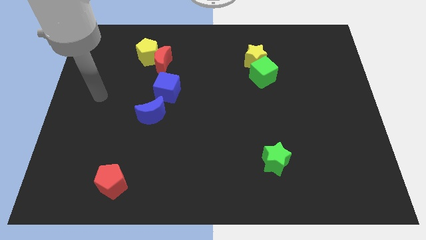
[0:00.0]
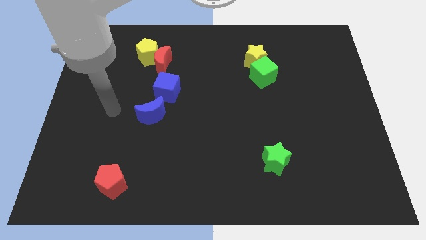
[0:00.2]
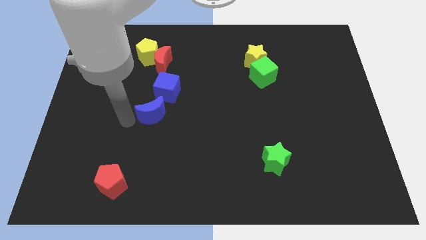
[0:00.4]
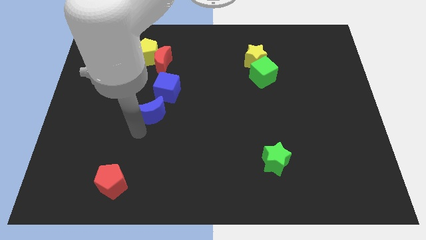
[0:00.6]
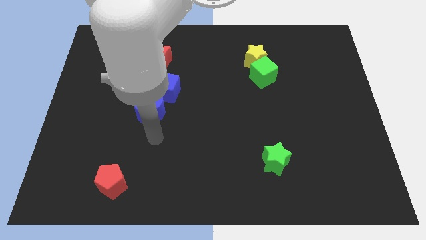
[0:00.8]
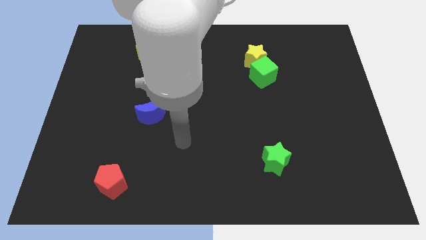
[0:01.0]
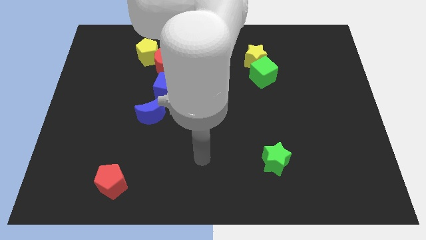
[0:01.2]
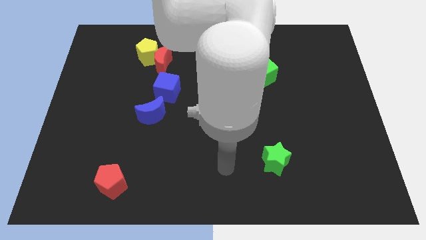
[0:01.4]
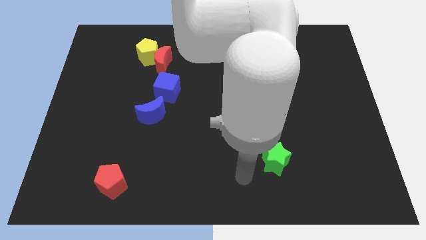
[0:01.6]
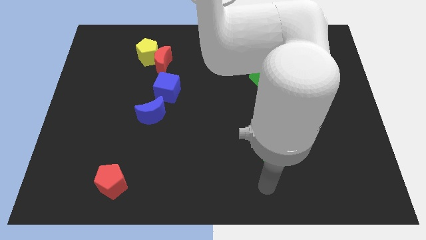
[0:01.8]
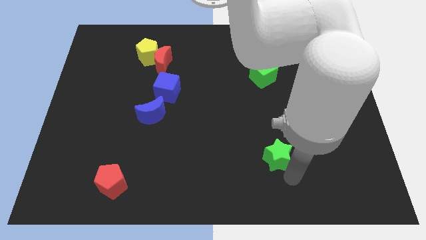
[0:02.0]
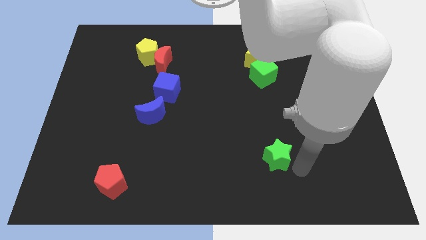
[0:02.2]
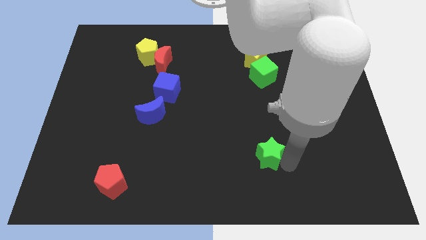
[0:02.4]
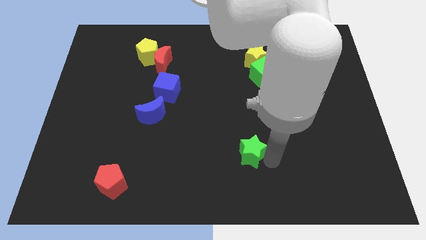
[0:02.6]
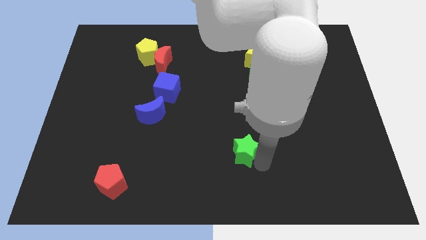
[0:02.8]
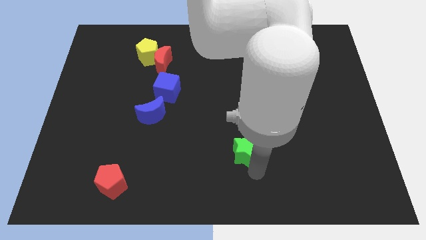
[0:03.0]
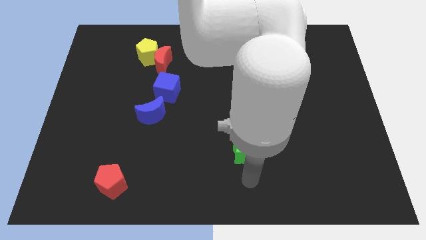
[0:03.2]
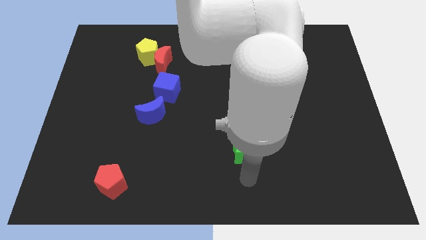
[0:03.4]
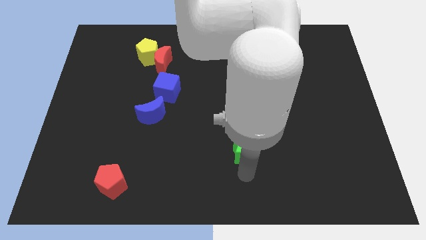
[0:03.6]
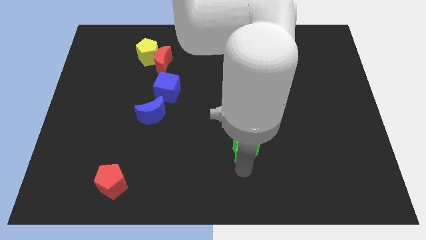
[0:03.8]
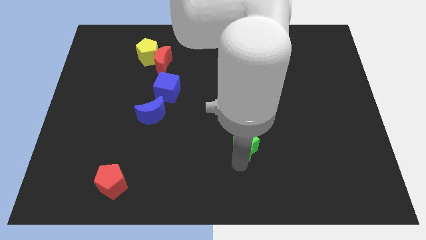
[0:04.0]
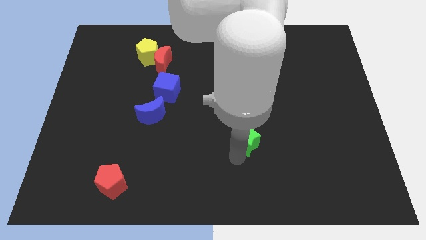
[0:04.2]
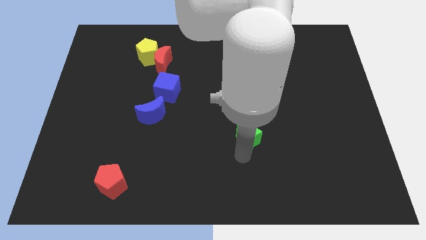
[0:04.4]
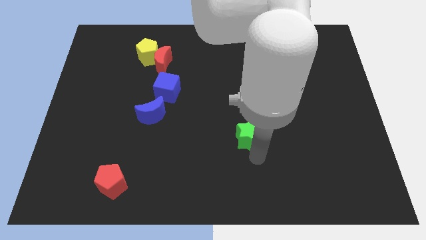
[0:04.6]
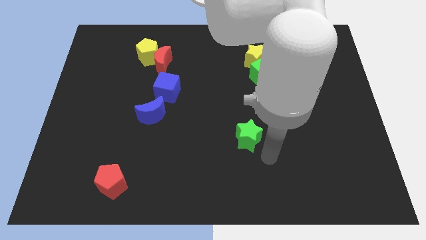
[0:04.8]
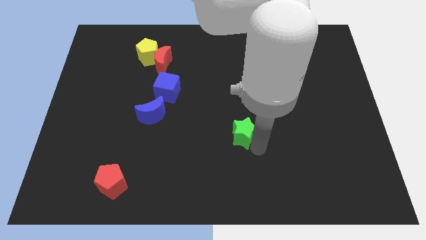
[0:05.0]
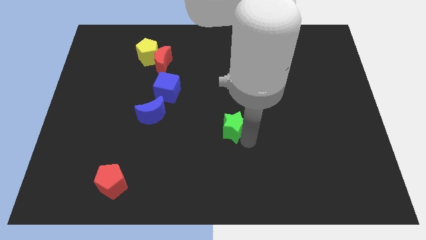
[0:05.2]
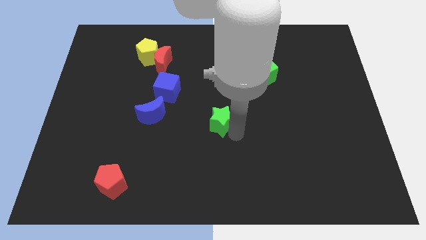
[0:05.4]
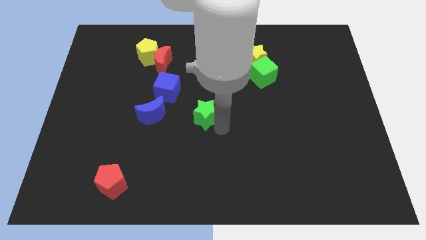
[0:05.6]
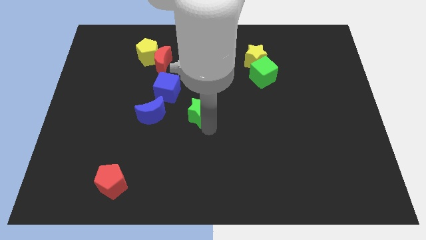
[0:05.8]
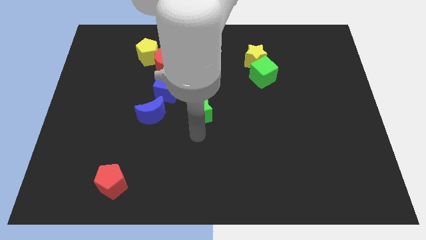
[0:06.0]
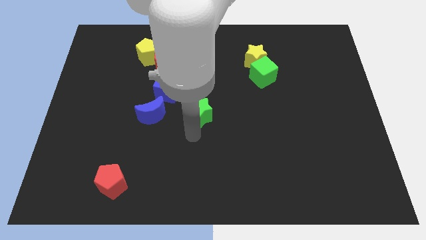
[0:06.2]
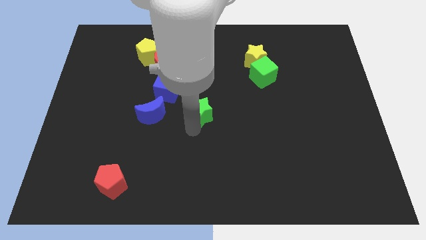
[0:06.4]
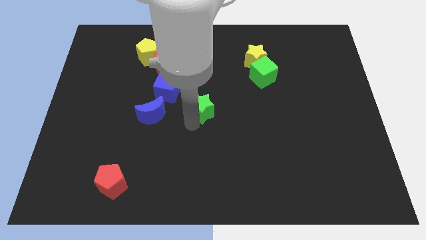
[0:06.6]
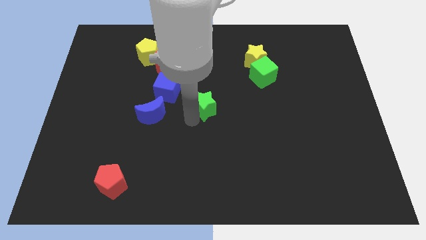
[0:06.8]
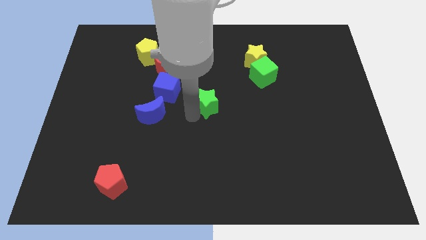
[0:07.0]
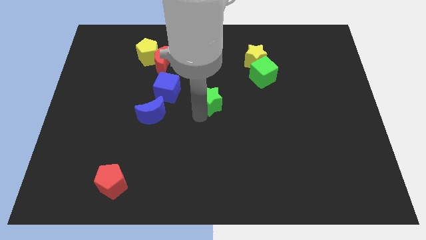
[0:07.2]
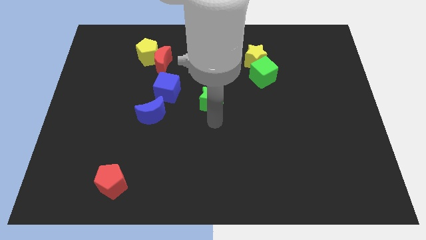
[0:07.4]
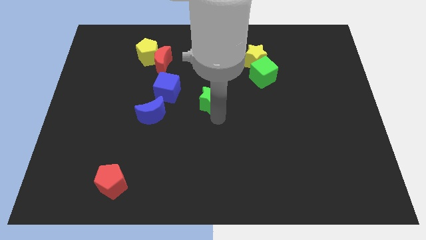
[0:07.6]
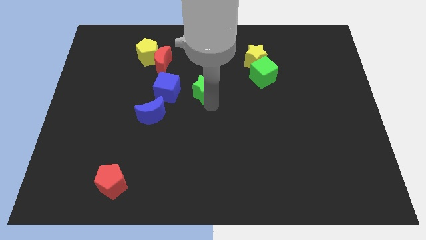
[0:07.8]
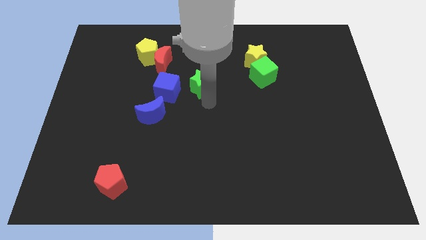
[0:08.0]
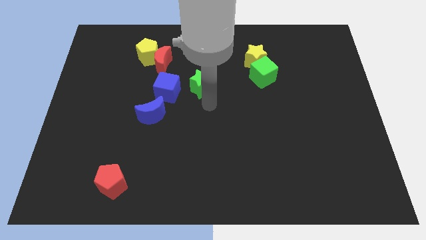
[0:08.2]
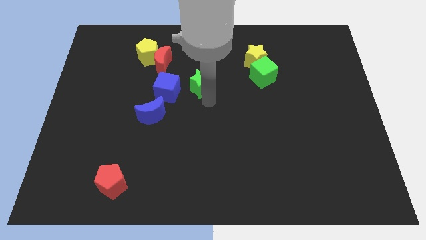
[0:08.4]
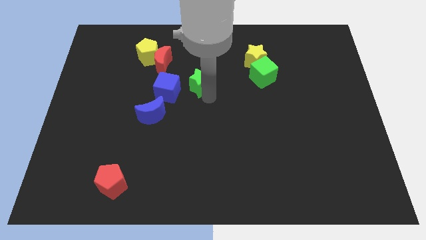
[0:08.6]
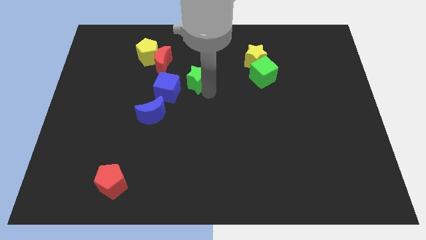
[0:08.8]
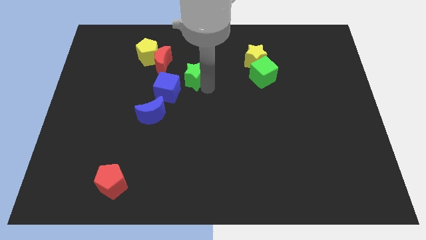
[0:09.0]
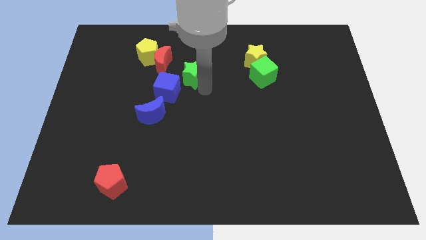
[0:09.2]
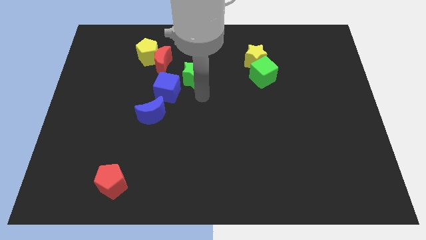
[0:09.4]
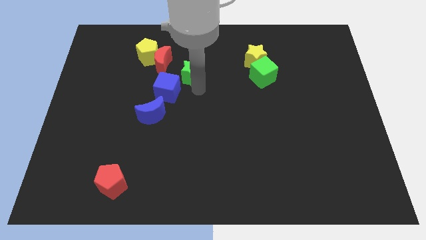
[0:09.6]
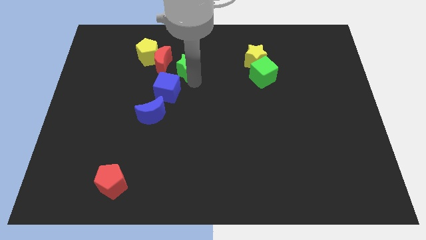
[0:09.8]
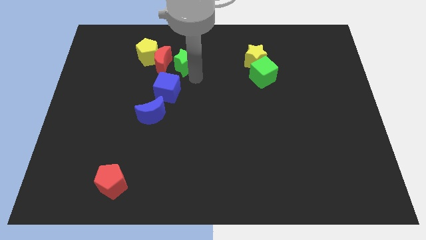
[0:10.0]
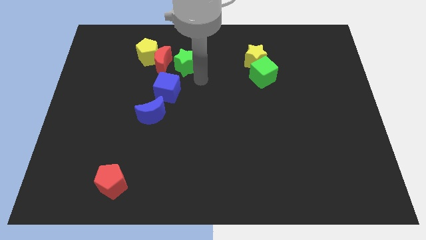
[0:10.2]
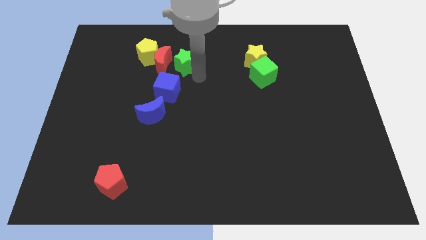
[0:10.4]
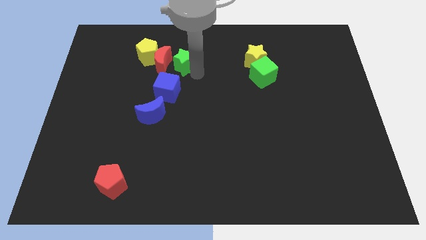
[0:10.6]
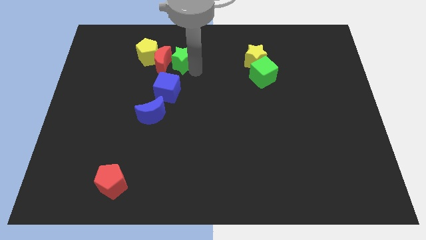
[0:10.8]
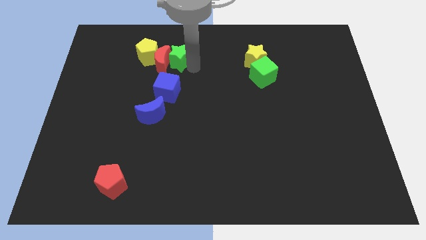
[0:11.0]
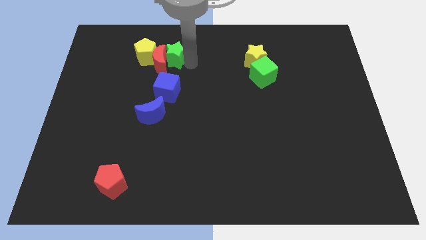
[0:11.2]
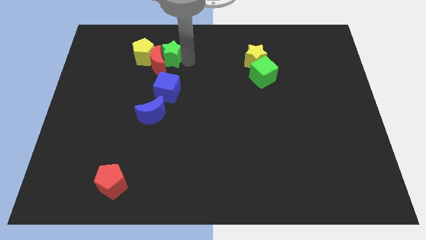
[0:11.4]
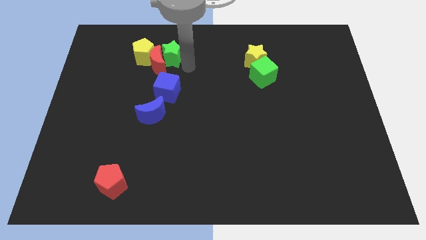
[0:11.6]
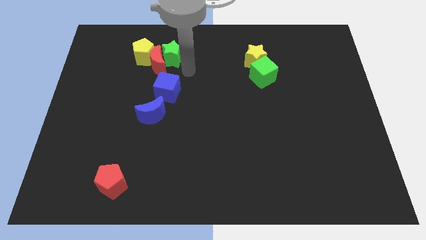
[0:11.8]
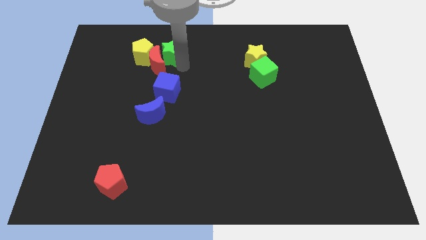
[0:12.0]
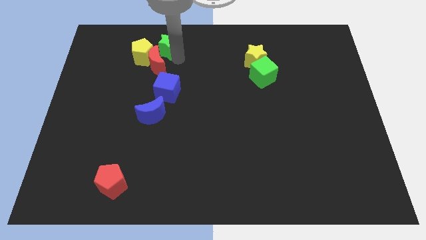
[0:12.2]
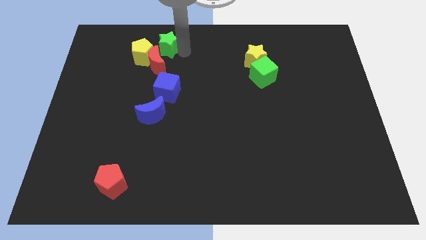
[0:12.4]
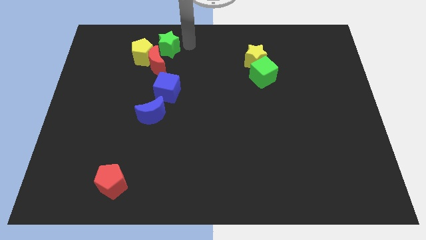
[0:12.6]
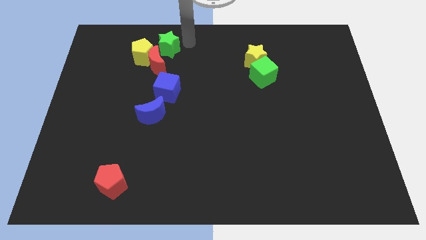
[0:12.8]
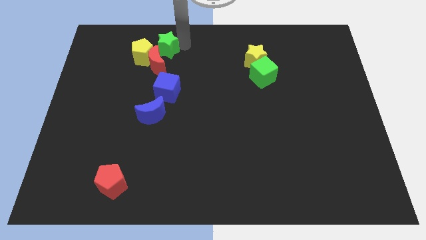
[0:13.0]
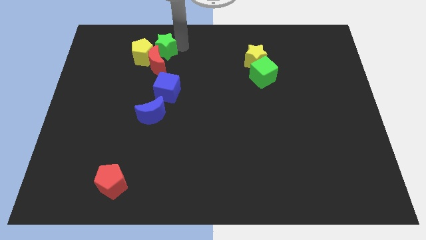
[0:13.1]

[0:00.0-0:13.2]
move the green star towards the yellow pentagon

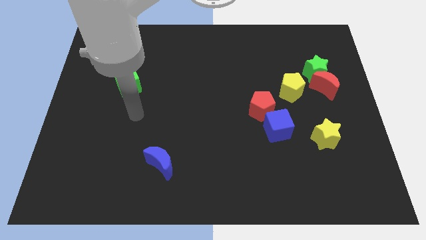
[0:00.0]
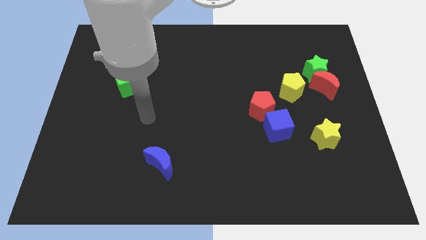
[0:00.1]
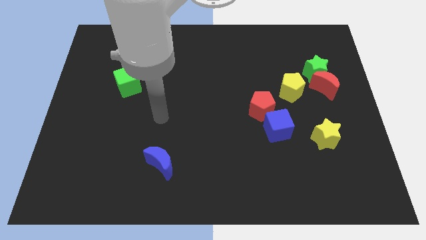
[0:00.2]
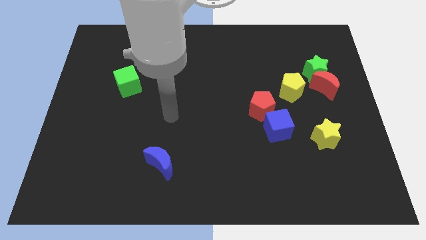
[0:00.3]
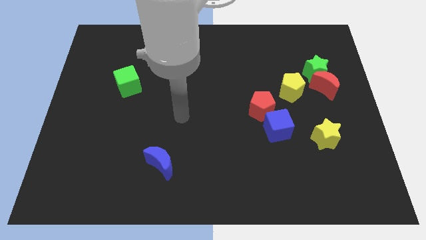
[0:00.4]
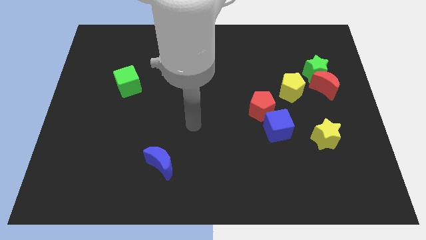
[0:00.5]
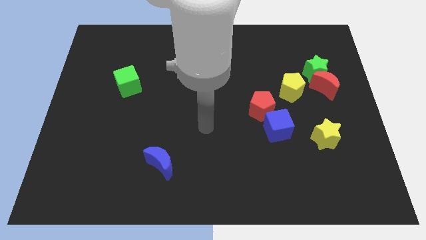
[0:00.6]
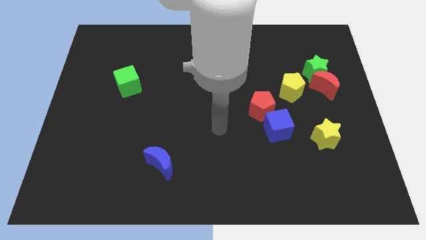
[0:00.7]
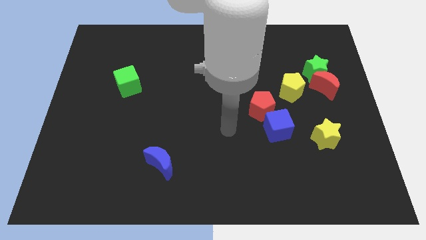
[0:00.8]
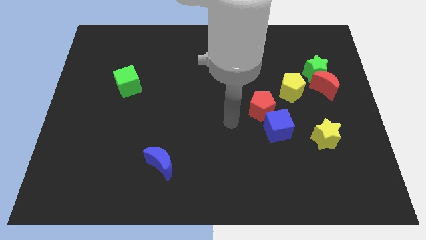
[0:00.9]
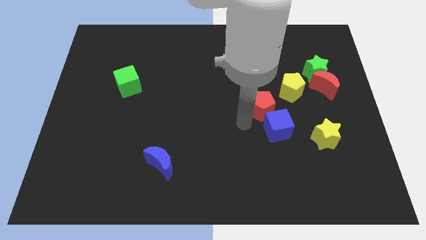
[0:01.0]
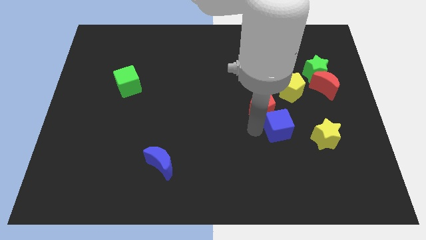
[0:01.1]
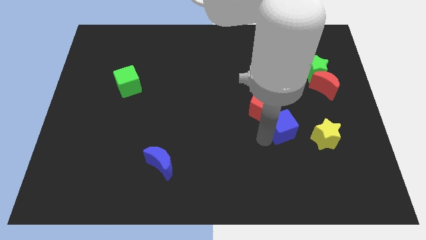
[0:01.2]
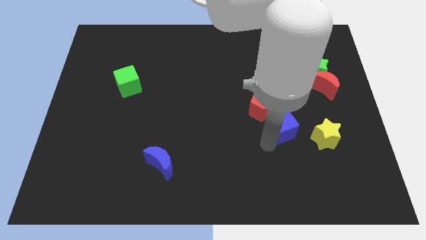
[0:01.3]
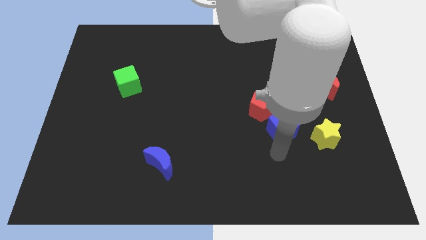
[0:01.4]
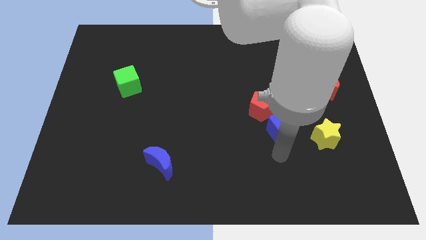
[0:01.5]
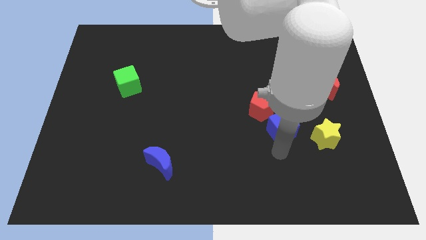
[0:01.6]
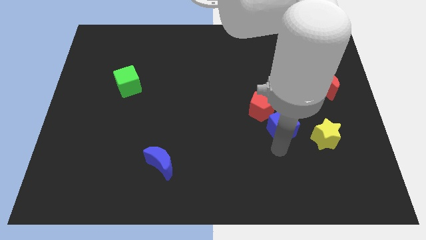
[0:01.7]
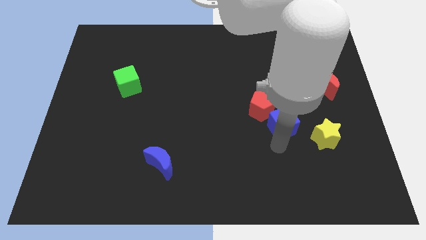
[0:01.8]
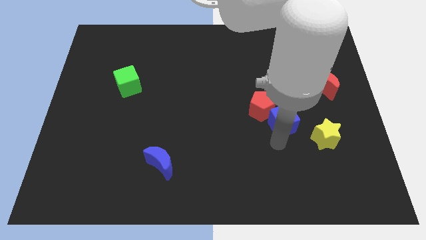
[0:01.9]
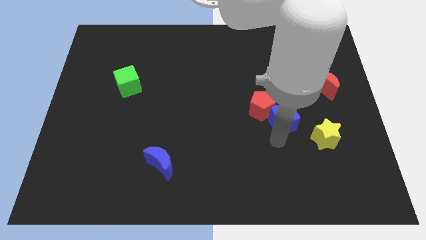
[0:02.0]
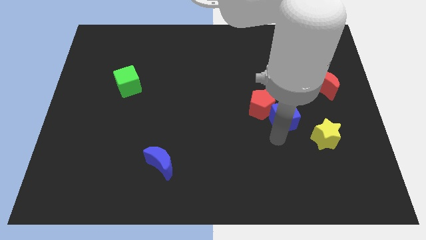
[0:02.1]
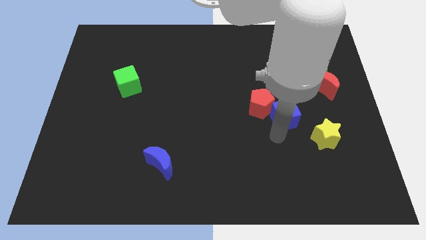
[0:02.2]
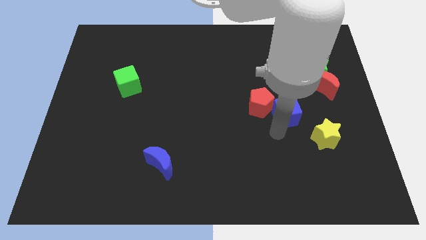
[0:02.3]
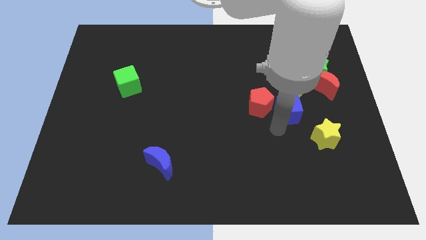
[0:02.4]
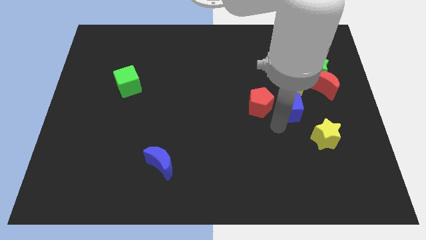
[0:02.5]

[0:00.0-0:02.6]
put the blue cube to the yellow pentagon
